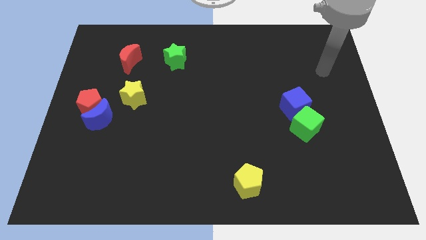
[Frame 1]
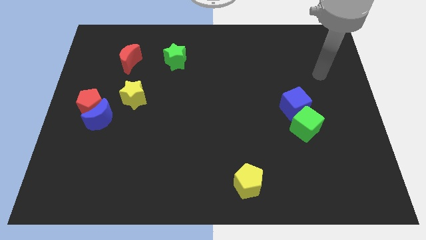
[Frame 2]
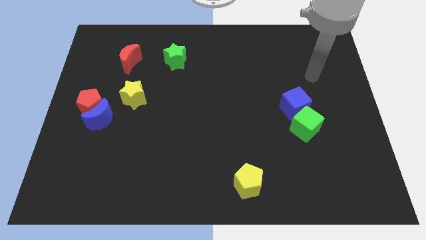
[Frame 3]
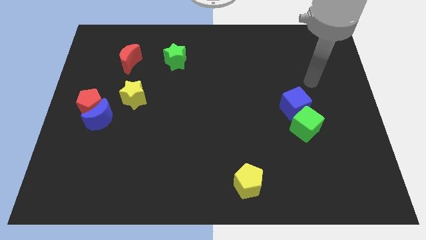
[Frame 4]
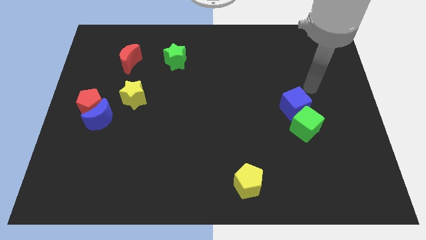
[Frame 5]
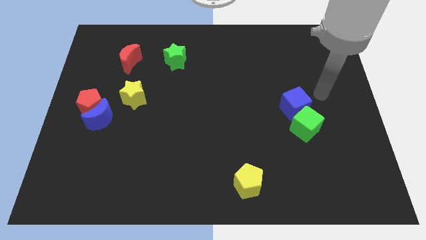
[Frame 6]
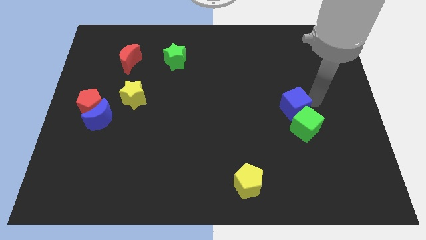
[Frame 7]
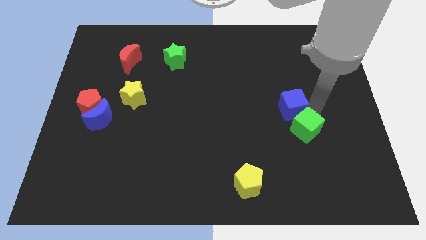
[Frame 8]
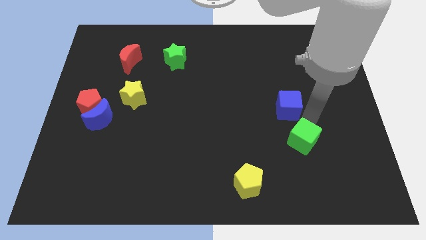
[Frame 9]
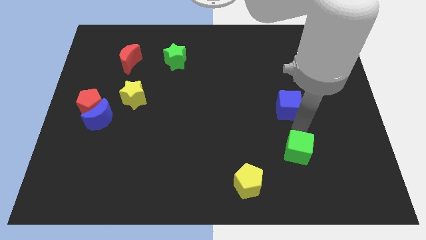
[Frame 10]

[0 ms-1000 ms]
separate the blue cube from the green cube

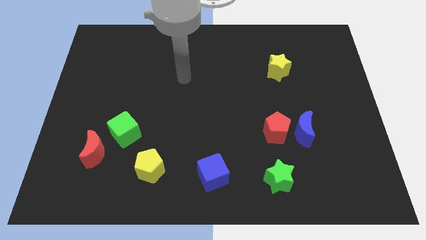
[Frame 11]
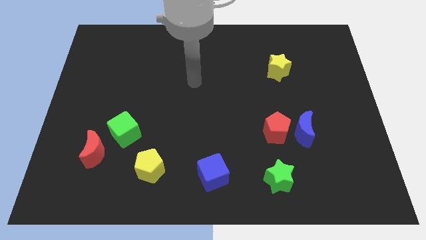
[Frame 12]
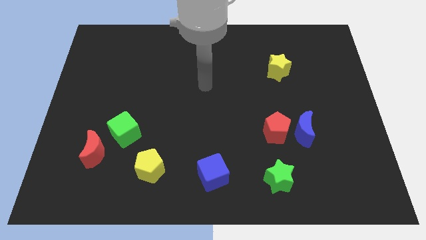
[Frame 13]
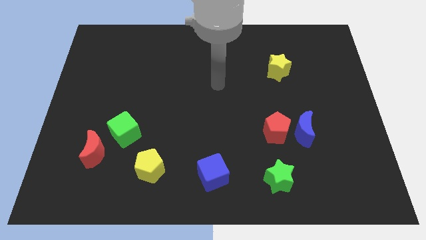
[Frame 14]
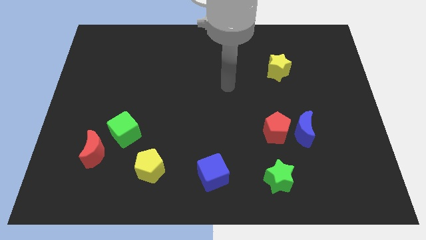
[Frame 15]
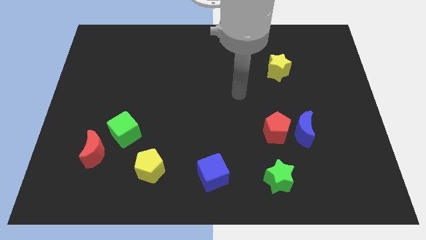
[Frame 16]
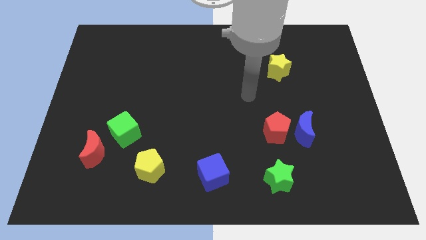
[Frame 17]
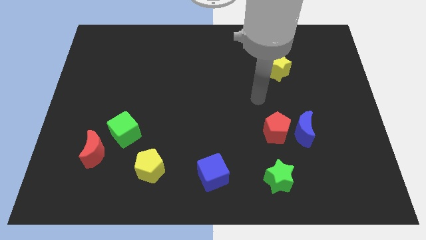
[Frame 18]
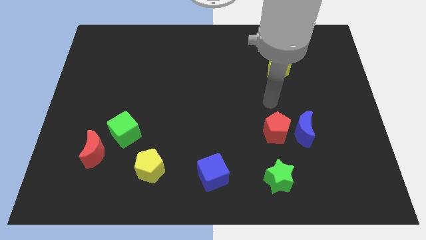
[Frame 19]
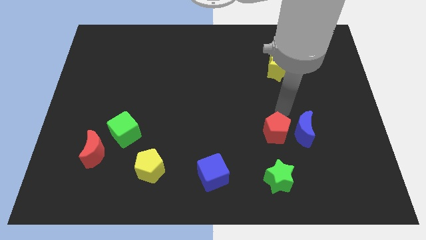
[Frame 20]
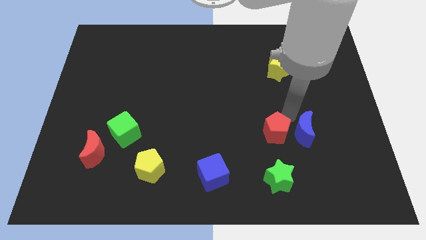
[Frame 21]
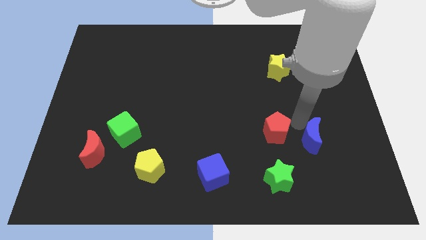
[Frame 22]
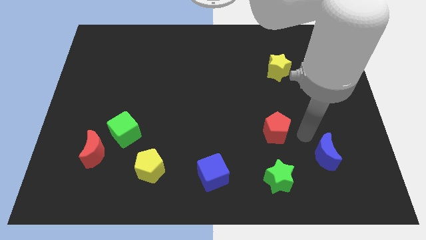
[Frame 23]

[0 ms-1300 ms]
move the red pentagon away from the blue moon

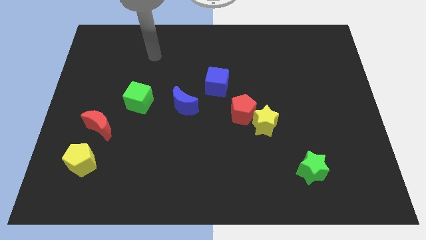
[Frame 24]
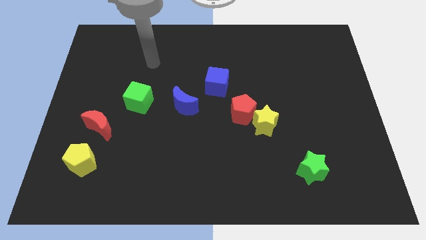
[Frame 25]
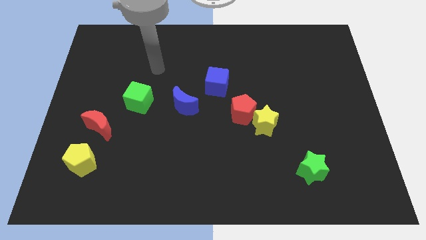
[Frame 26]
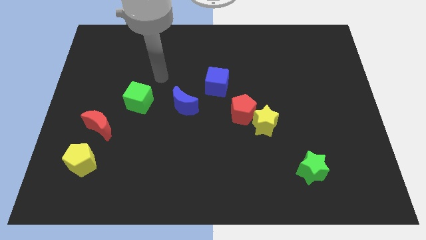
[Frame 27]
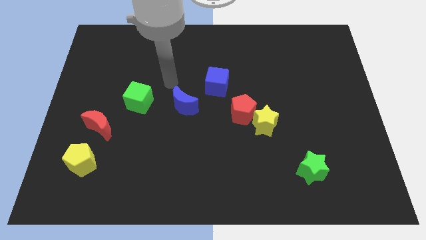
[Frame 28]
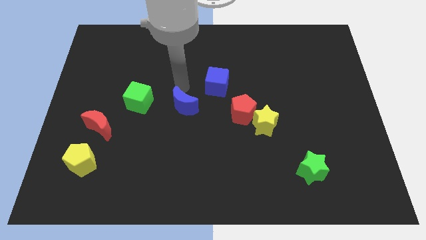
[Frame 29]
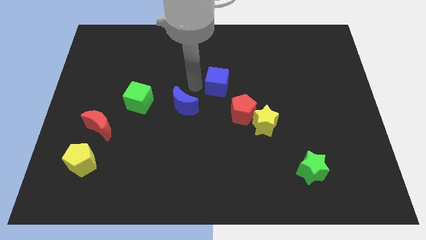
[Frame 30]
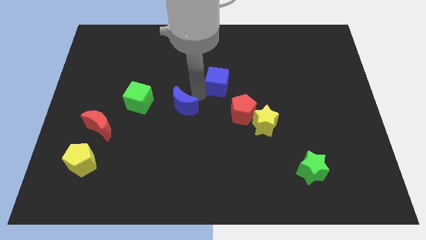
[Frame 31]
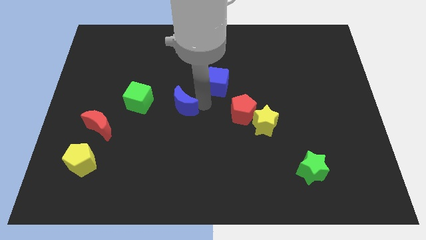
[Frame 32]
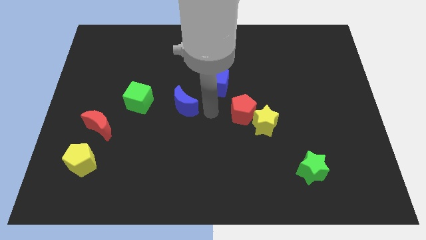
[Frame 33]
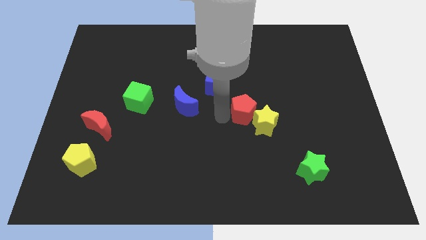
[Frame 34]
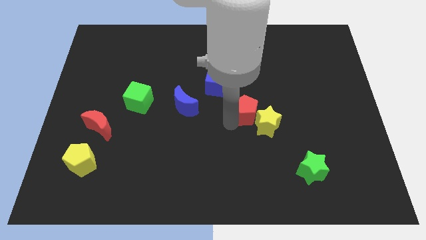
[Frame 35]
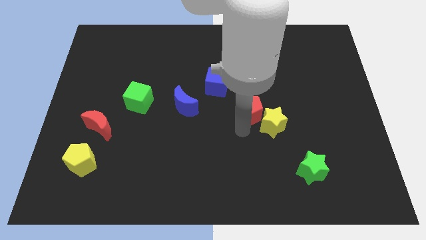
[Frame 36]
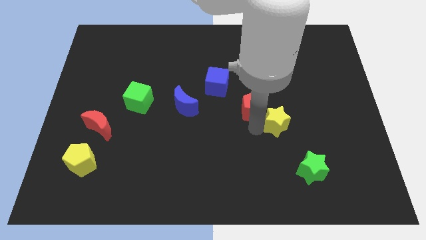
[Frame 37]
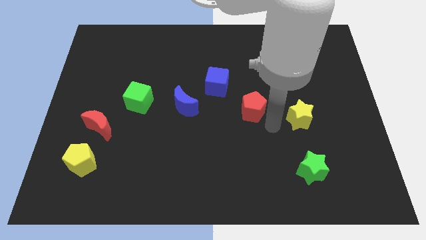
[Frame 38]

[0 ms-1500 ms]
pull the red pentagon apart from the yellow star

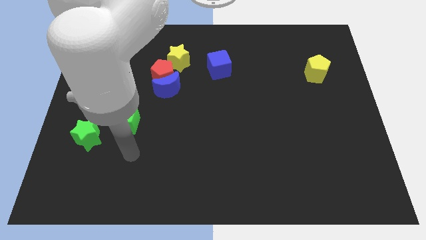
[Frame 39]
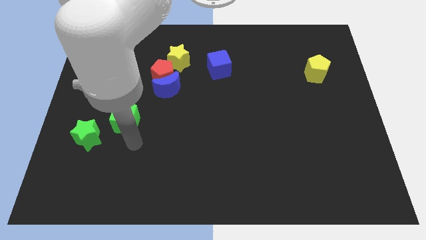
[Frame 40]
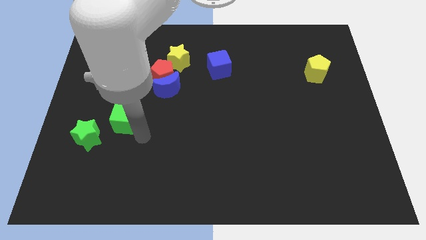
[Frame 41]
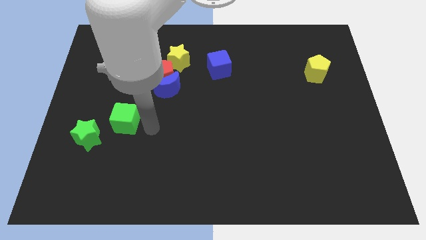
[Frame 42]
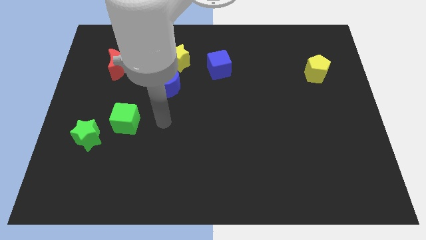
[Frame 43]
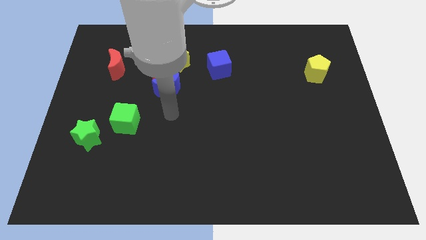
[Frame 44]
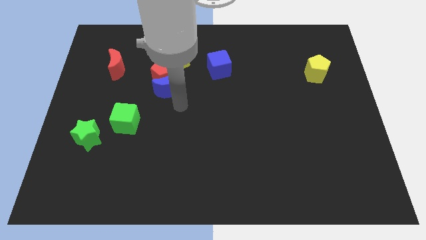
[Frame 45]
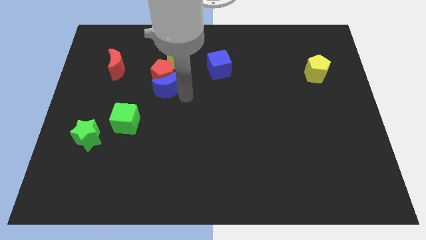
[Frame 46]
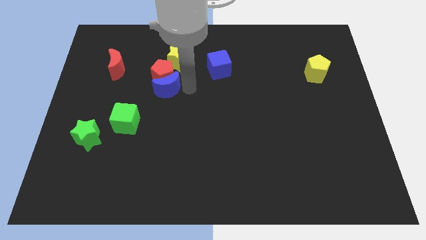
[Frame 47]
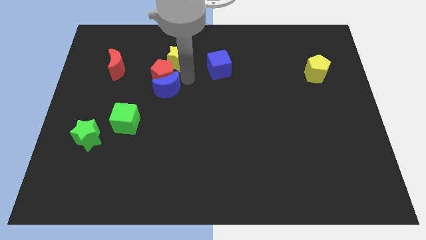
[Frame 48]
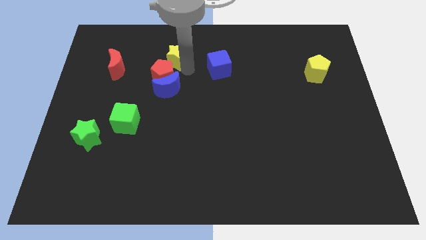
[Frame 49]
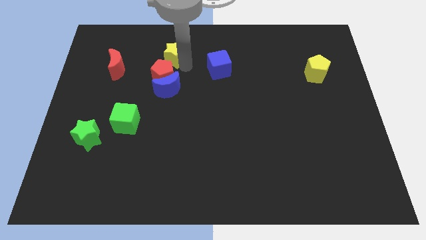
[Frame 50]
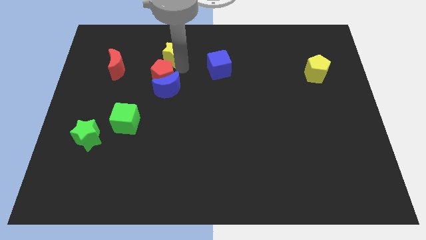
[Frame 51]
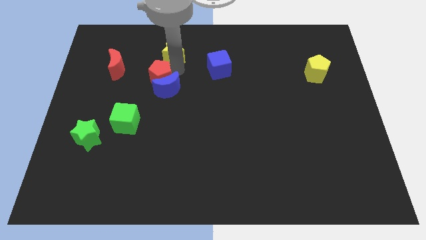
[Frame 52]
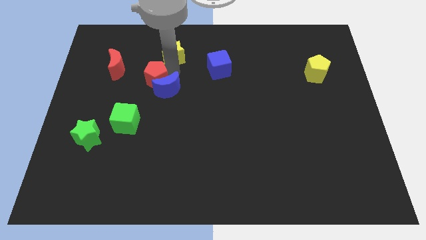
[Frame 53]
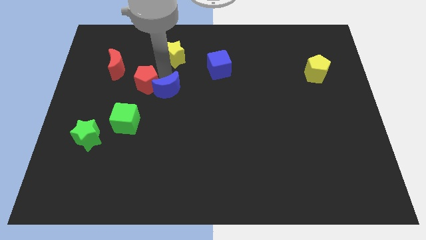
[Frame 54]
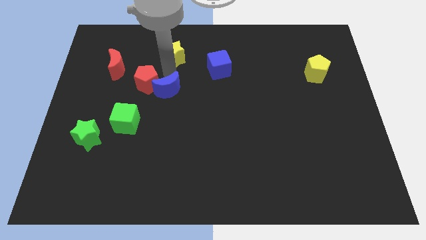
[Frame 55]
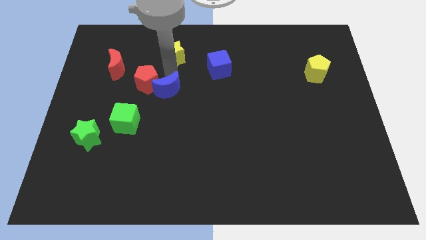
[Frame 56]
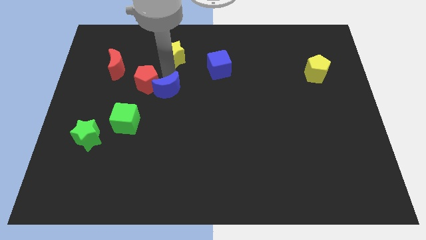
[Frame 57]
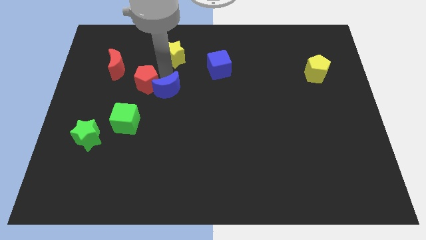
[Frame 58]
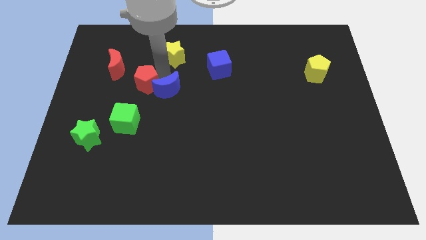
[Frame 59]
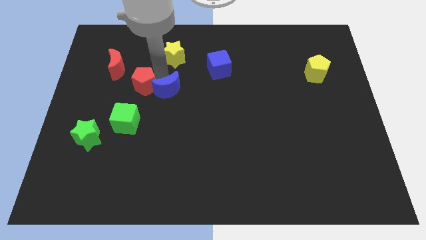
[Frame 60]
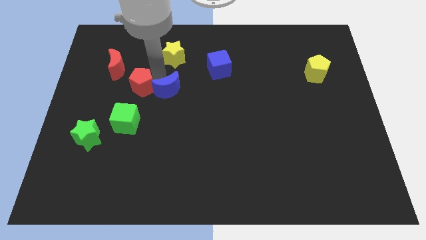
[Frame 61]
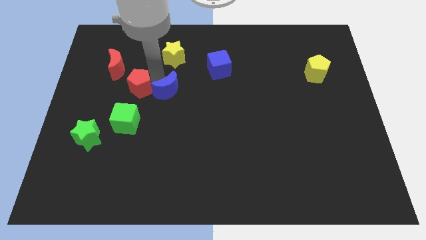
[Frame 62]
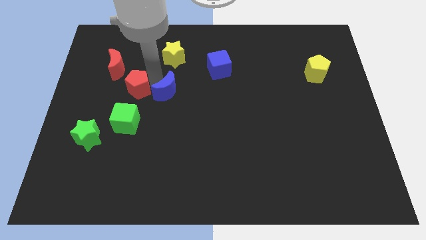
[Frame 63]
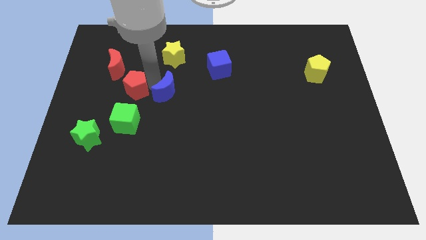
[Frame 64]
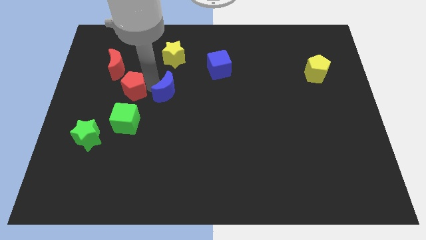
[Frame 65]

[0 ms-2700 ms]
move the red pentagon away from the blue moon and yellow star

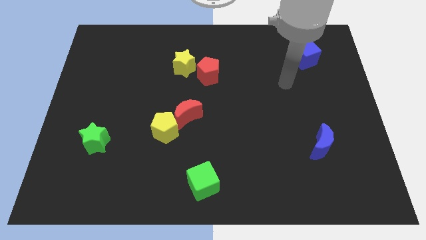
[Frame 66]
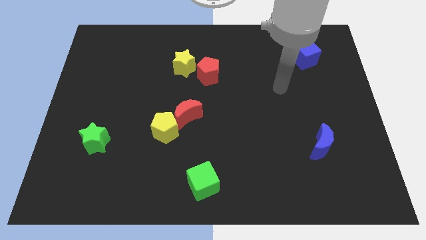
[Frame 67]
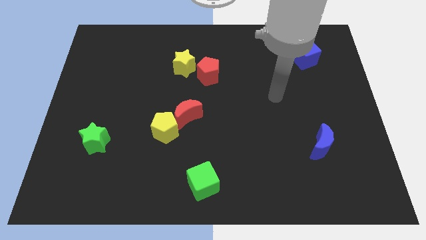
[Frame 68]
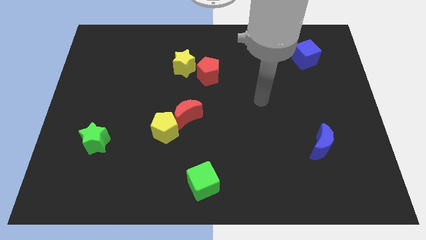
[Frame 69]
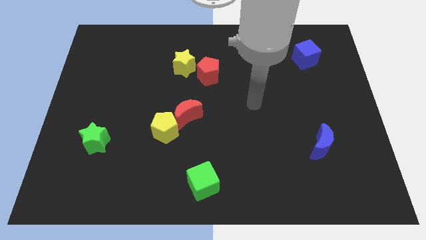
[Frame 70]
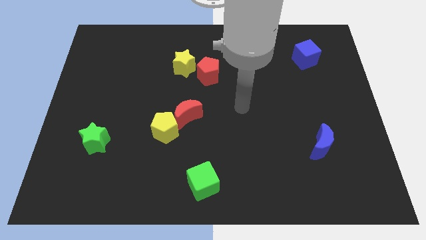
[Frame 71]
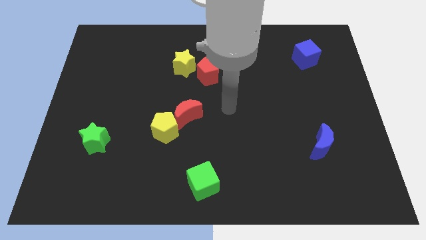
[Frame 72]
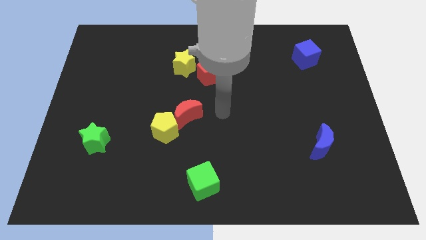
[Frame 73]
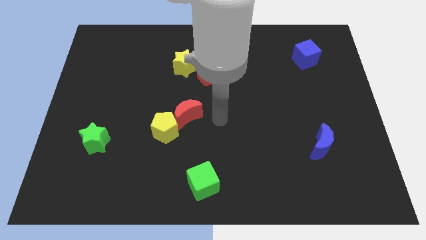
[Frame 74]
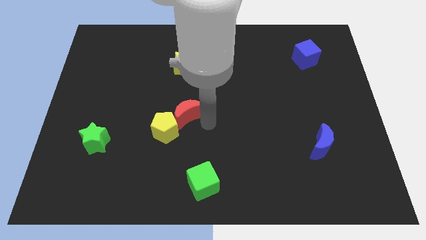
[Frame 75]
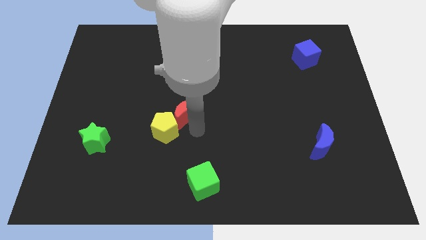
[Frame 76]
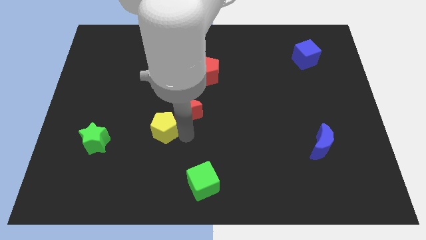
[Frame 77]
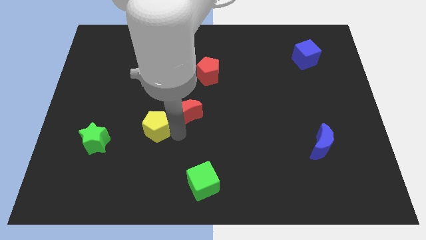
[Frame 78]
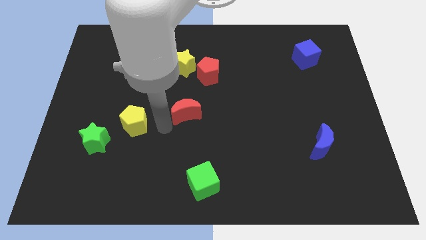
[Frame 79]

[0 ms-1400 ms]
pull the red moon apart from the yellow pentagon

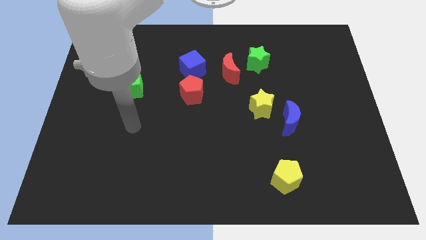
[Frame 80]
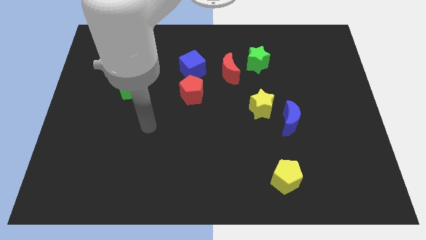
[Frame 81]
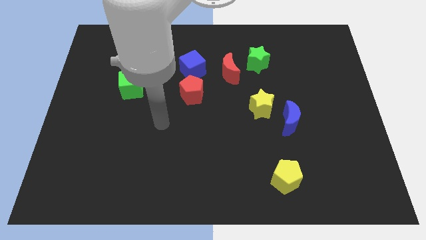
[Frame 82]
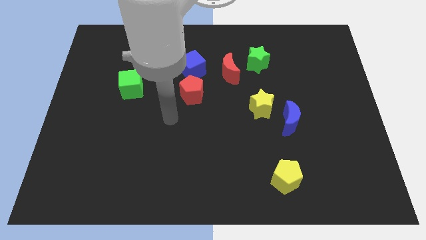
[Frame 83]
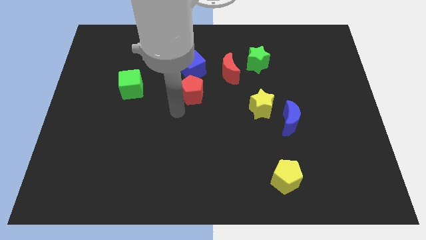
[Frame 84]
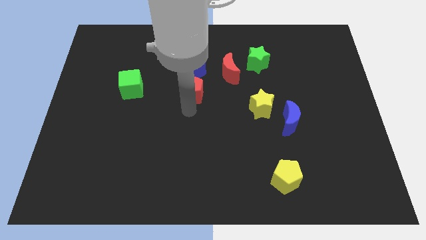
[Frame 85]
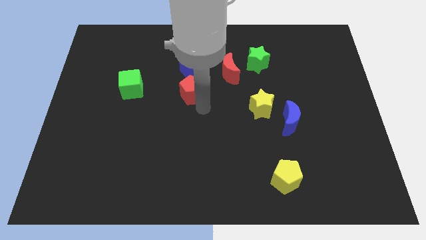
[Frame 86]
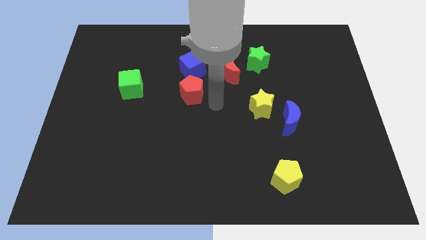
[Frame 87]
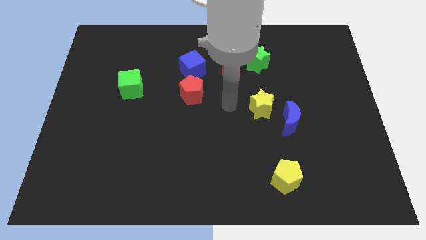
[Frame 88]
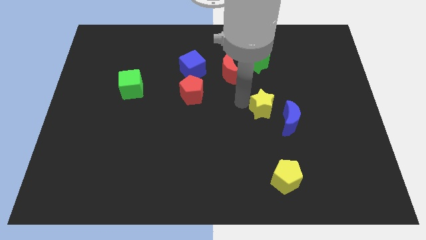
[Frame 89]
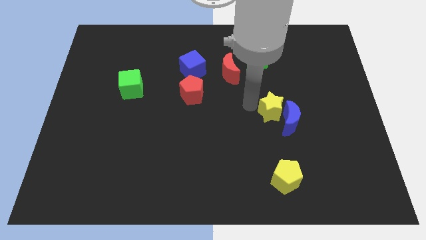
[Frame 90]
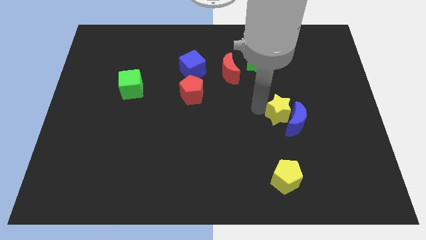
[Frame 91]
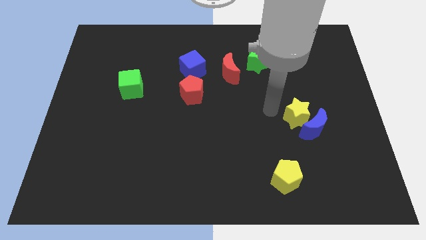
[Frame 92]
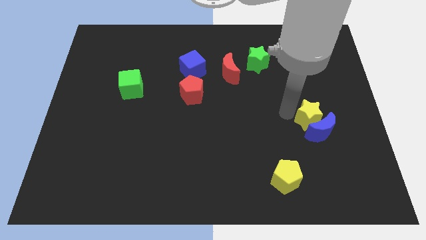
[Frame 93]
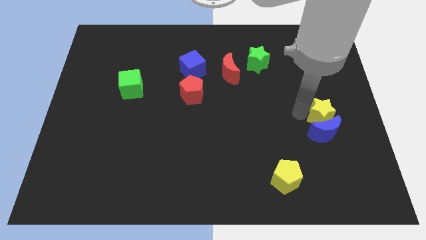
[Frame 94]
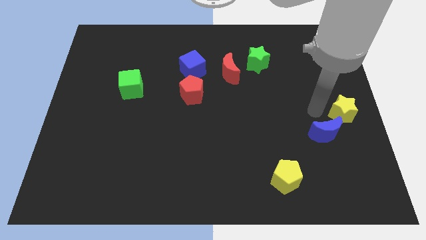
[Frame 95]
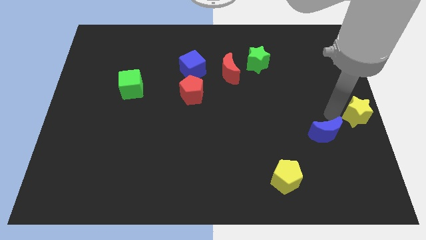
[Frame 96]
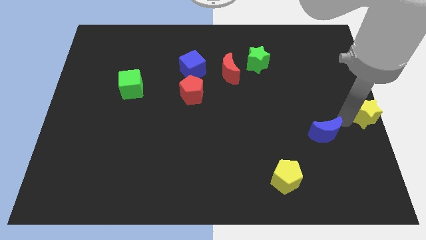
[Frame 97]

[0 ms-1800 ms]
move the blue moon away from the yellow star
